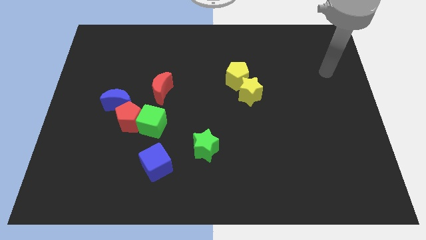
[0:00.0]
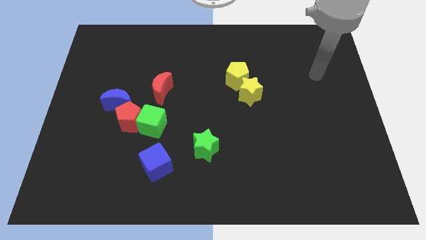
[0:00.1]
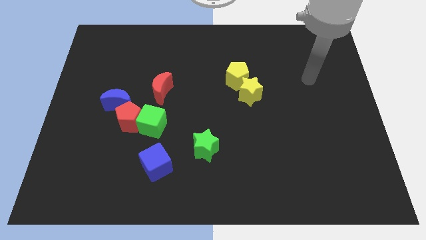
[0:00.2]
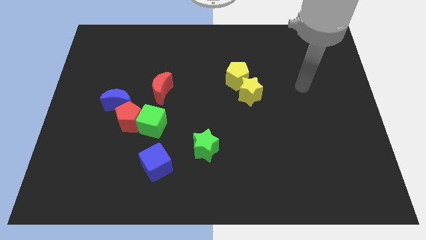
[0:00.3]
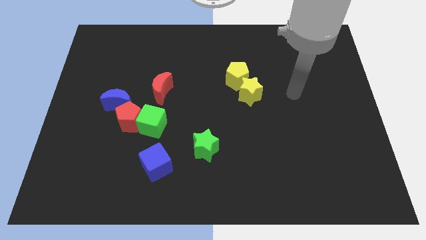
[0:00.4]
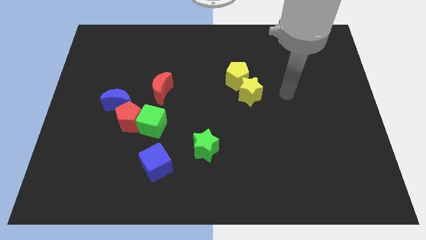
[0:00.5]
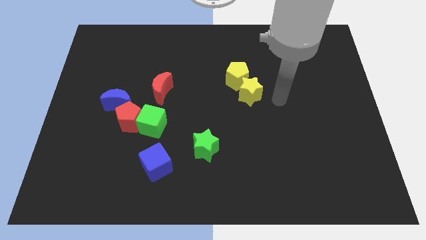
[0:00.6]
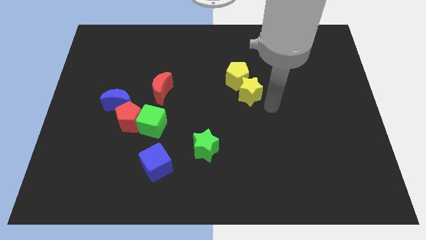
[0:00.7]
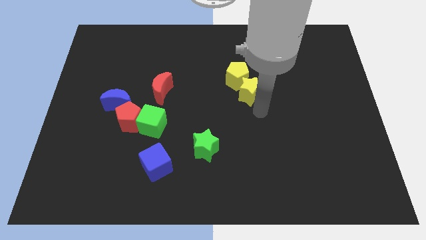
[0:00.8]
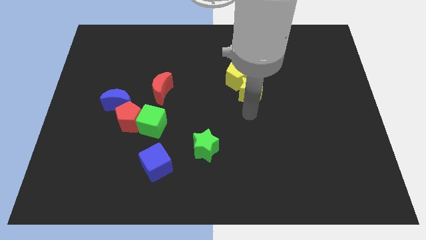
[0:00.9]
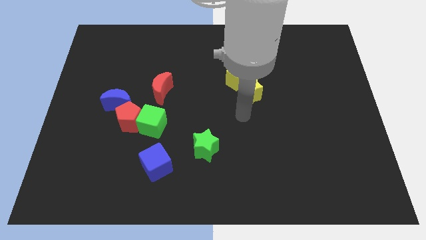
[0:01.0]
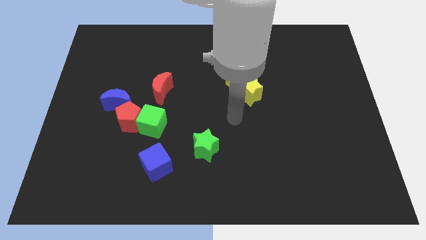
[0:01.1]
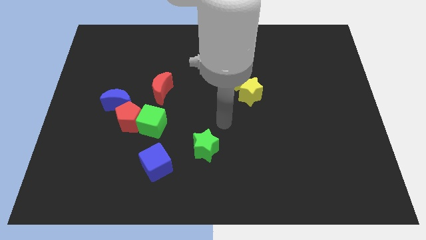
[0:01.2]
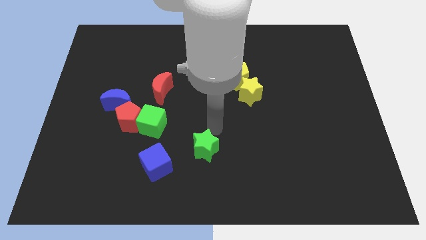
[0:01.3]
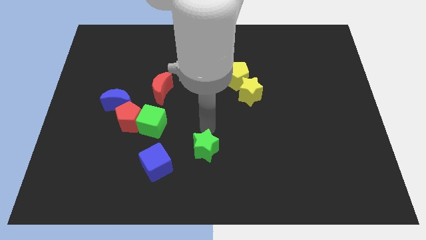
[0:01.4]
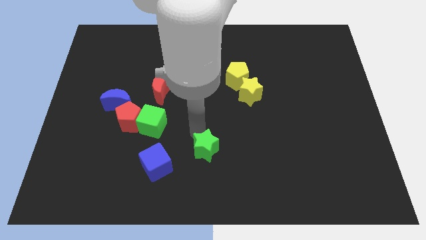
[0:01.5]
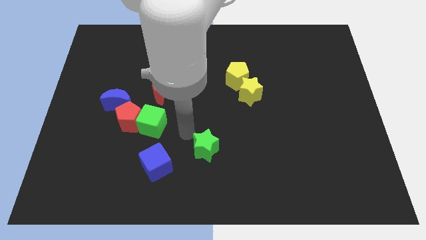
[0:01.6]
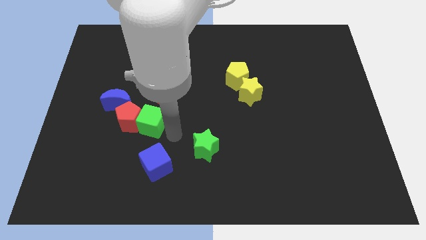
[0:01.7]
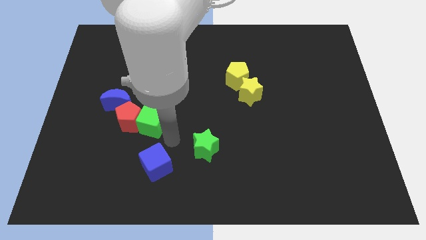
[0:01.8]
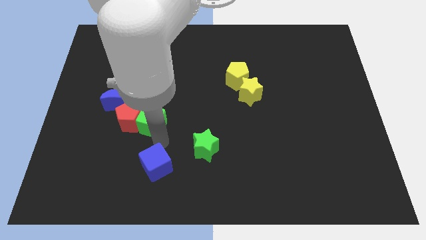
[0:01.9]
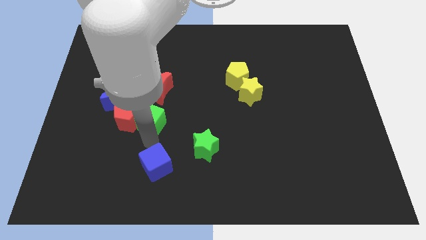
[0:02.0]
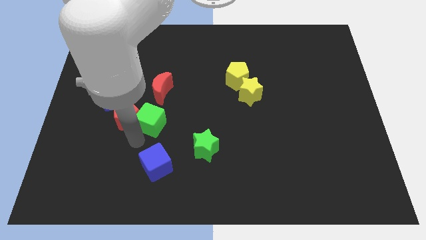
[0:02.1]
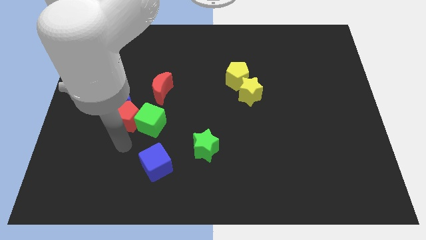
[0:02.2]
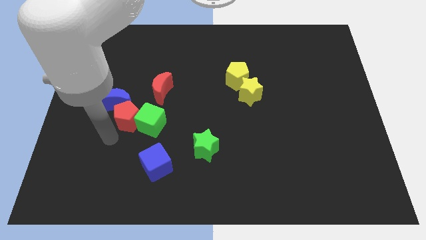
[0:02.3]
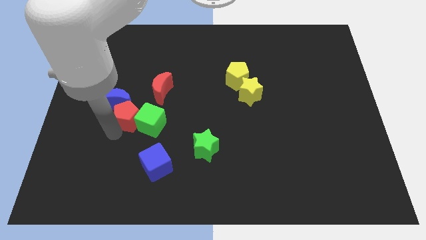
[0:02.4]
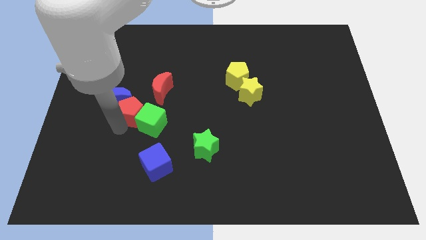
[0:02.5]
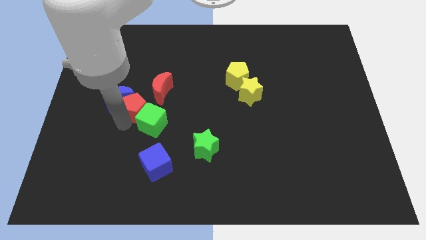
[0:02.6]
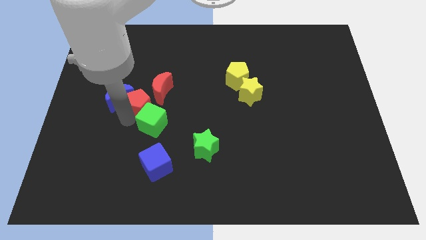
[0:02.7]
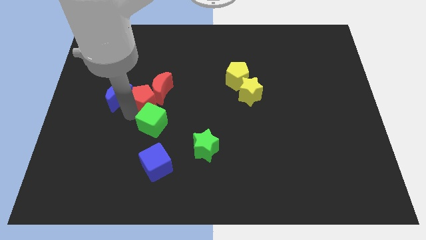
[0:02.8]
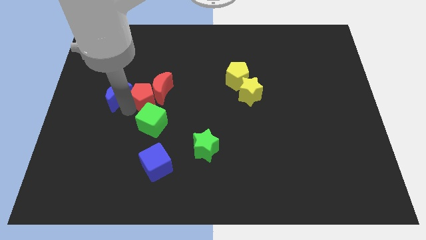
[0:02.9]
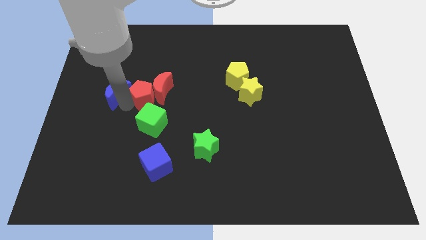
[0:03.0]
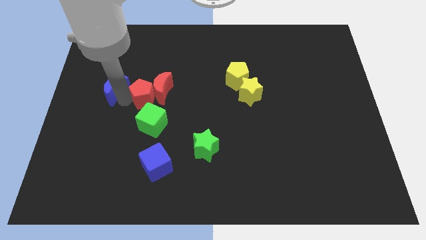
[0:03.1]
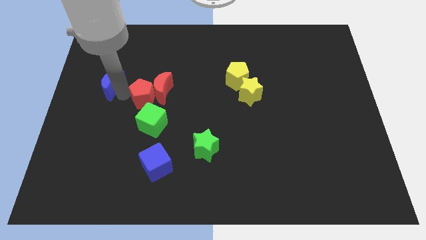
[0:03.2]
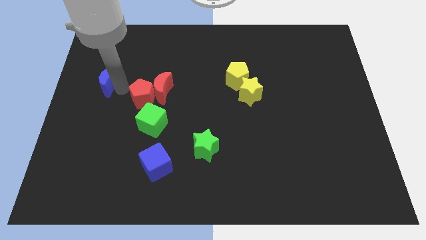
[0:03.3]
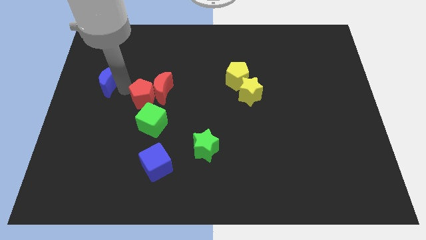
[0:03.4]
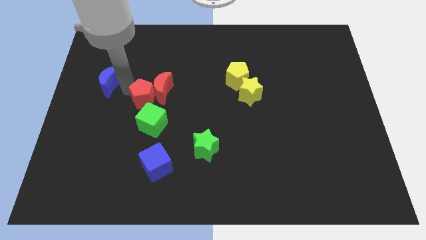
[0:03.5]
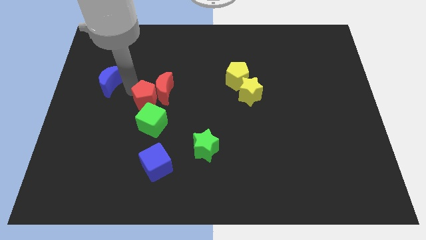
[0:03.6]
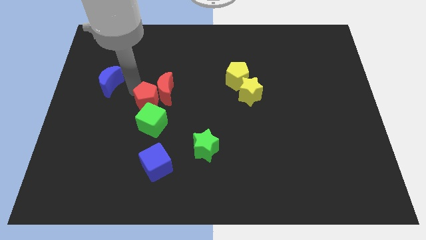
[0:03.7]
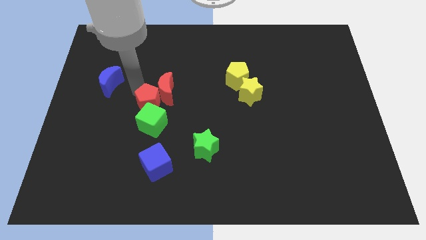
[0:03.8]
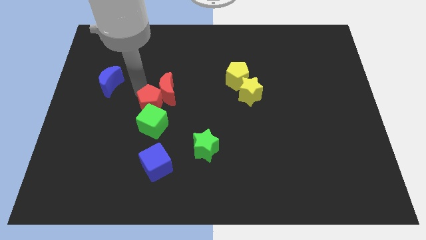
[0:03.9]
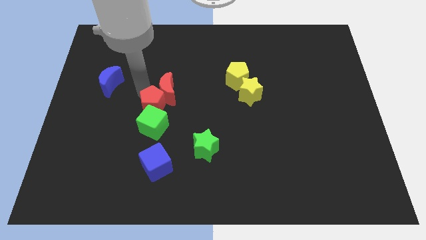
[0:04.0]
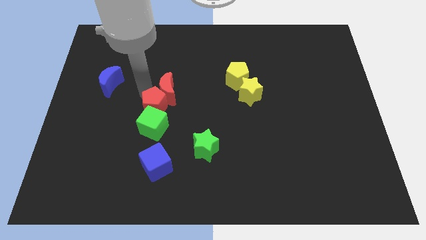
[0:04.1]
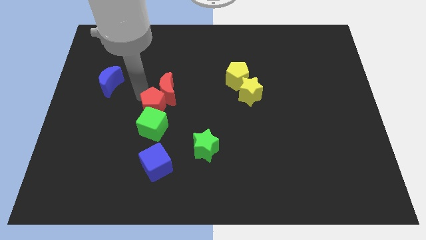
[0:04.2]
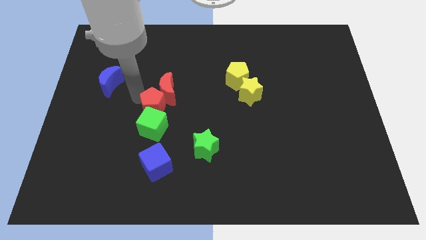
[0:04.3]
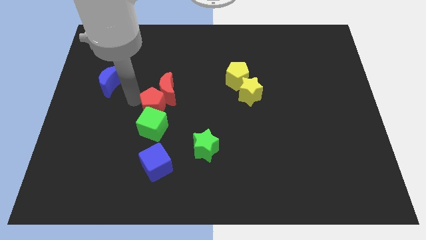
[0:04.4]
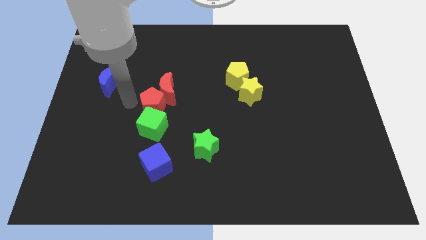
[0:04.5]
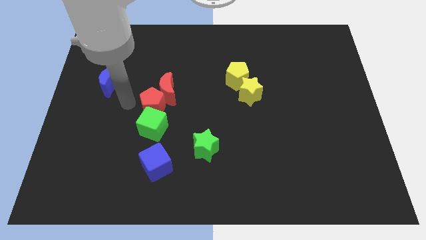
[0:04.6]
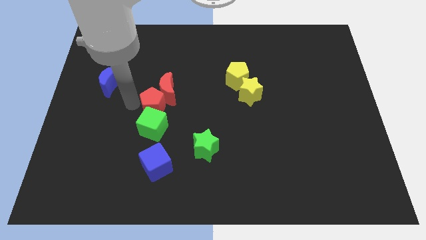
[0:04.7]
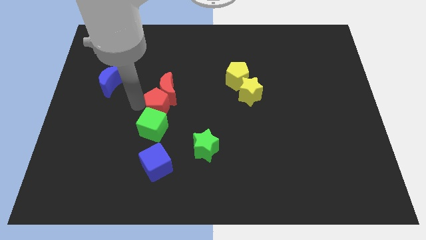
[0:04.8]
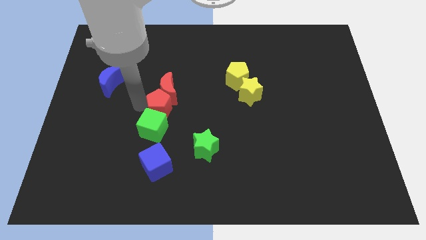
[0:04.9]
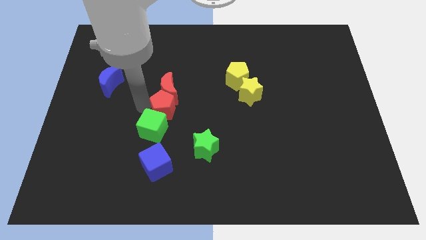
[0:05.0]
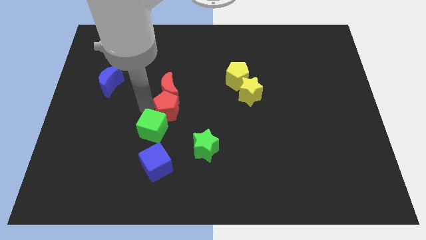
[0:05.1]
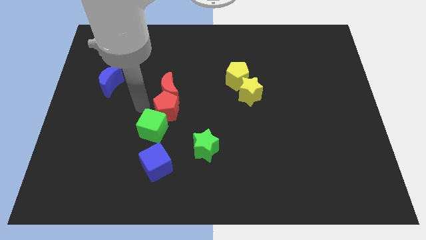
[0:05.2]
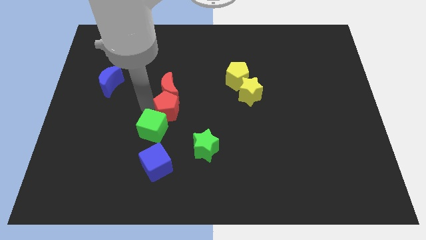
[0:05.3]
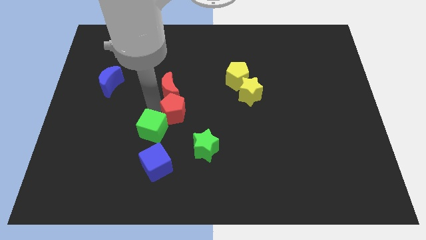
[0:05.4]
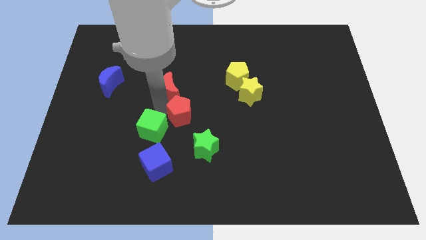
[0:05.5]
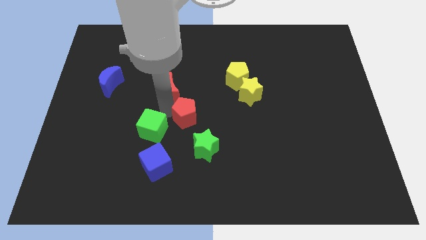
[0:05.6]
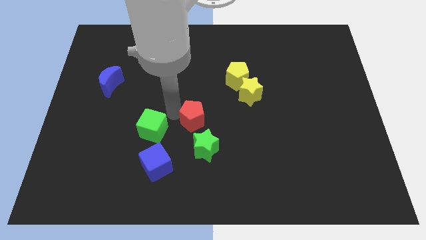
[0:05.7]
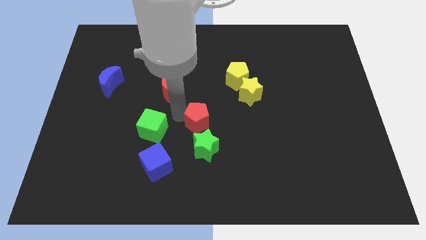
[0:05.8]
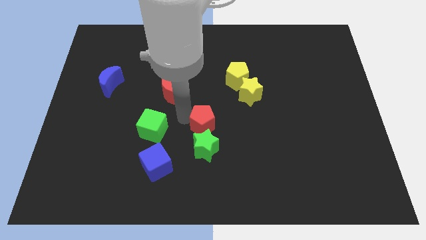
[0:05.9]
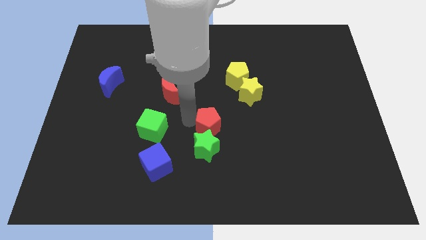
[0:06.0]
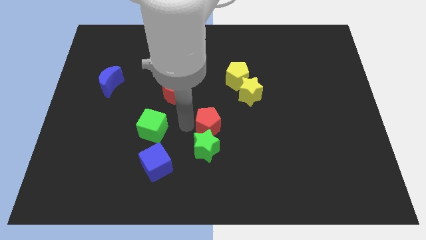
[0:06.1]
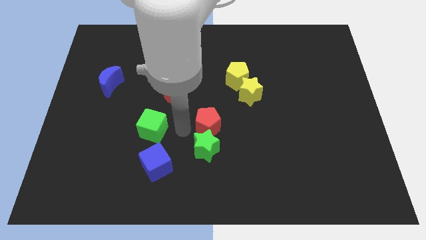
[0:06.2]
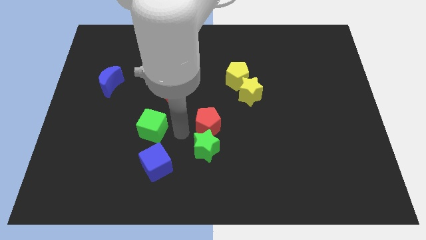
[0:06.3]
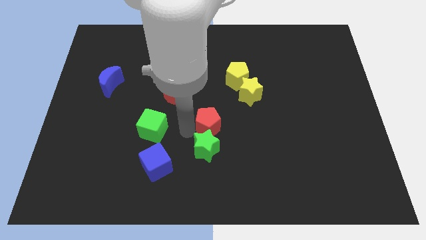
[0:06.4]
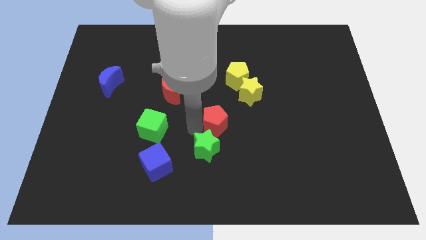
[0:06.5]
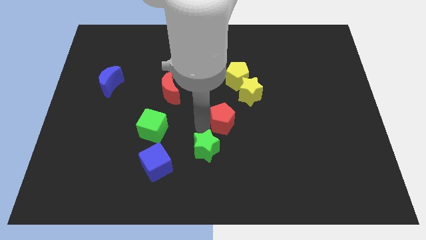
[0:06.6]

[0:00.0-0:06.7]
move the red pentagon to the right

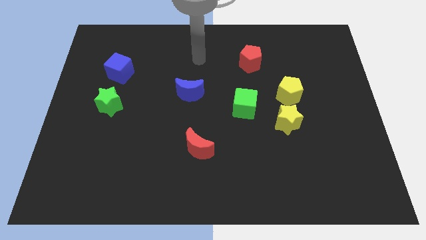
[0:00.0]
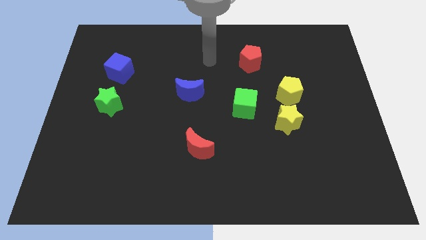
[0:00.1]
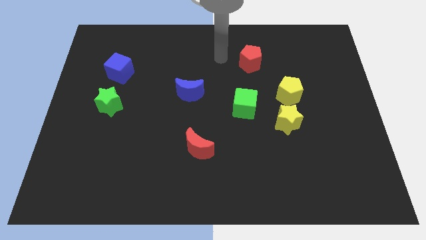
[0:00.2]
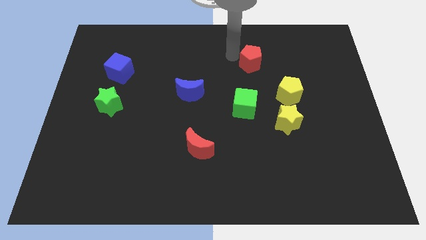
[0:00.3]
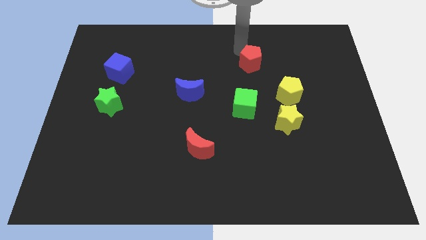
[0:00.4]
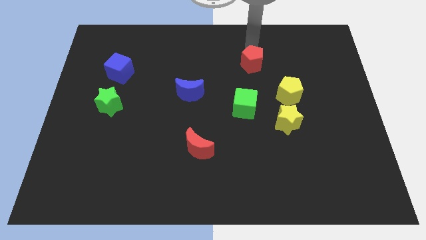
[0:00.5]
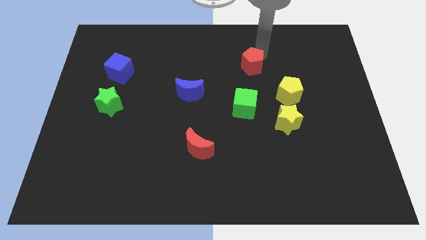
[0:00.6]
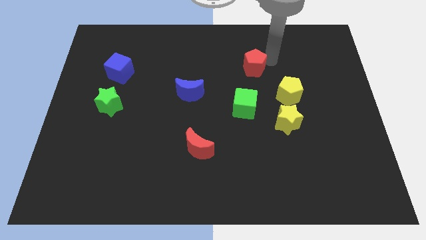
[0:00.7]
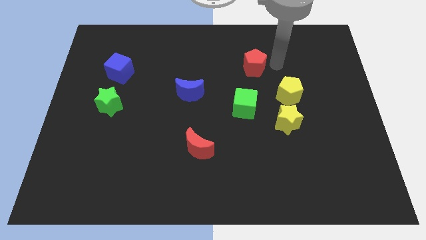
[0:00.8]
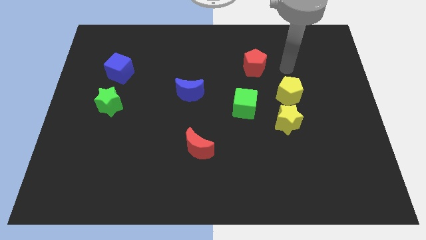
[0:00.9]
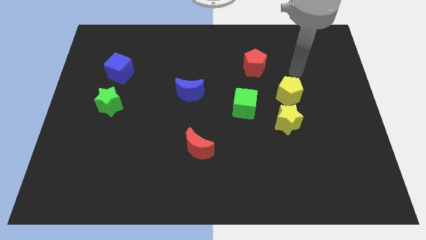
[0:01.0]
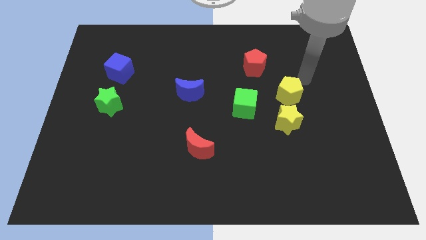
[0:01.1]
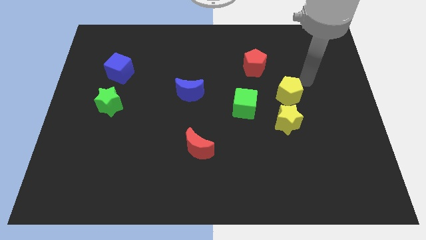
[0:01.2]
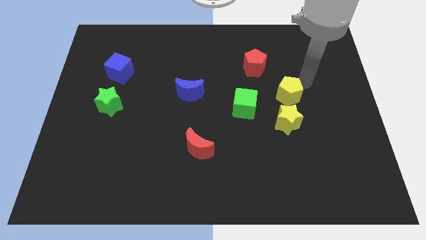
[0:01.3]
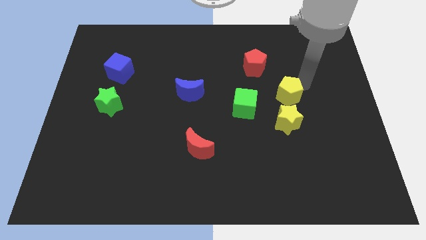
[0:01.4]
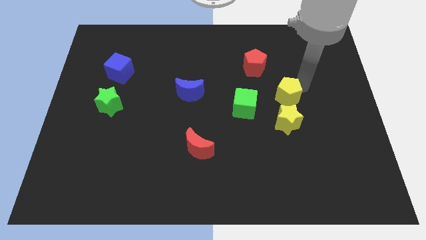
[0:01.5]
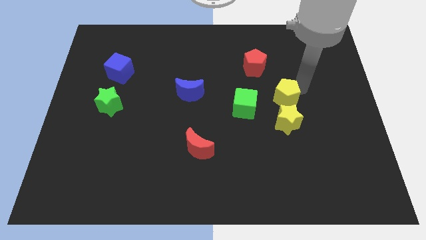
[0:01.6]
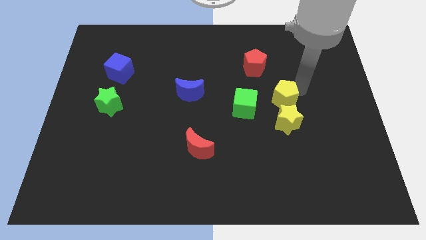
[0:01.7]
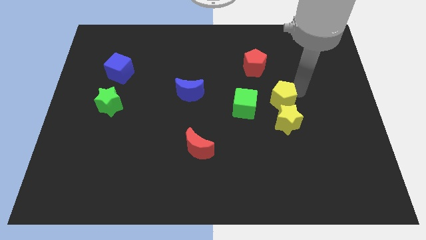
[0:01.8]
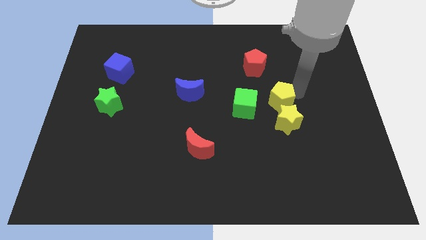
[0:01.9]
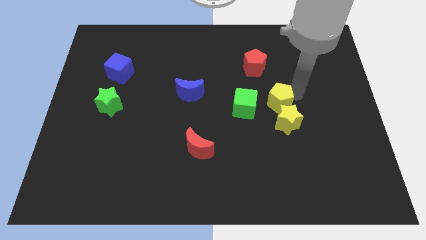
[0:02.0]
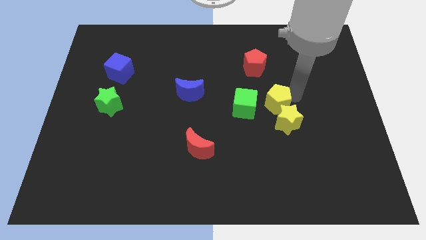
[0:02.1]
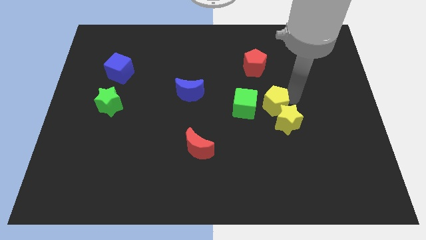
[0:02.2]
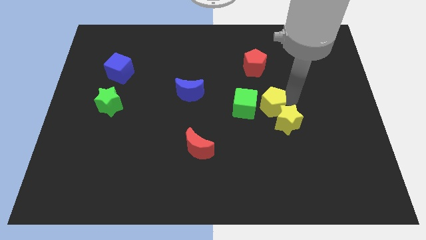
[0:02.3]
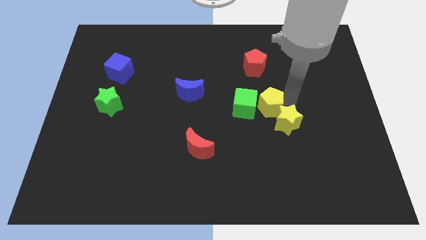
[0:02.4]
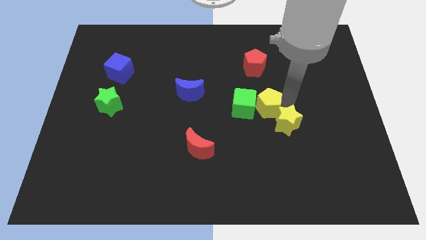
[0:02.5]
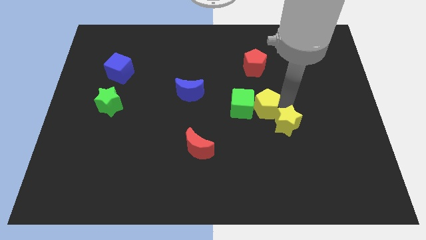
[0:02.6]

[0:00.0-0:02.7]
move the yellow pentagon somewhat down and left diagonally
